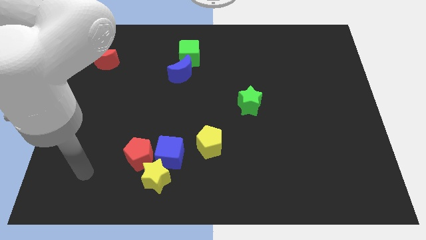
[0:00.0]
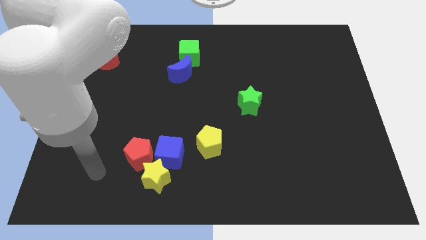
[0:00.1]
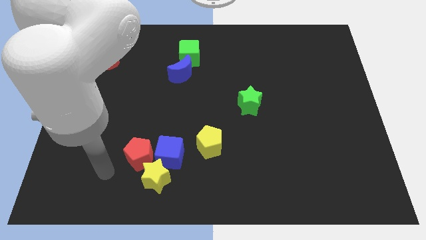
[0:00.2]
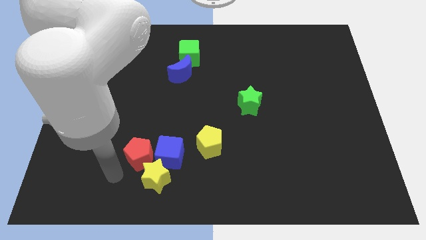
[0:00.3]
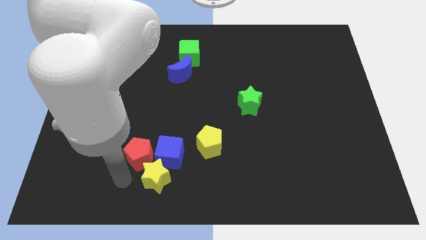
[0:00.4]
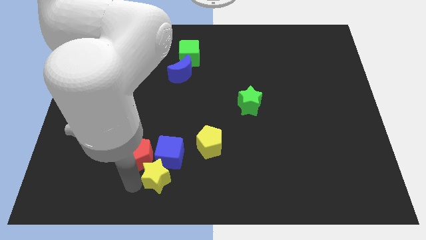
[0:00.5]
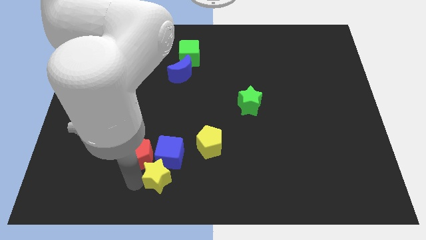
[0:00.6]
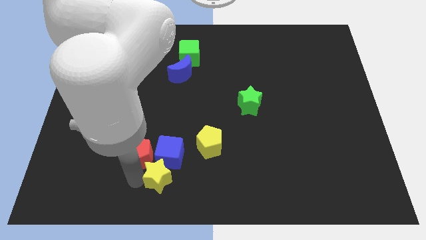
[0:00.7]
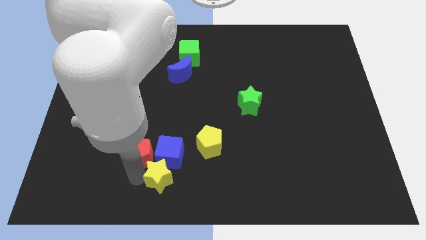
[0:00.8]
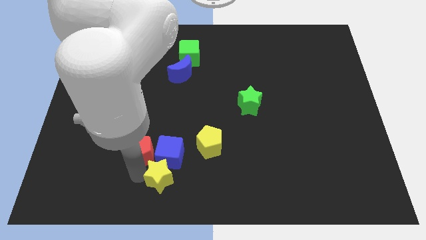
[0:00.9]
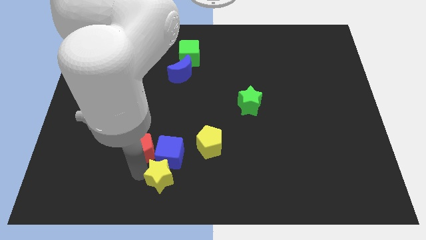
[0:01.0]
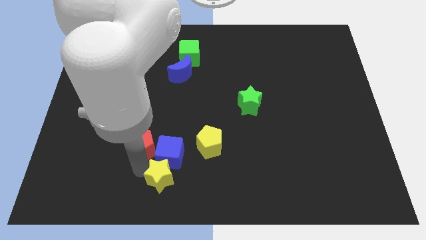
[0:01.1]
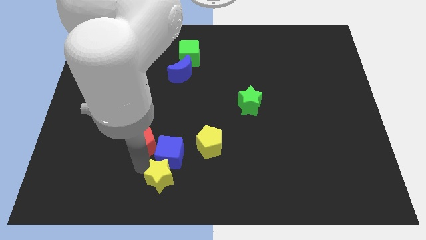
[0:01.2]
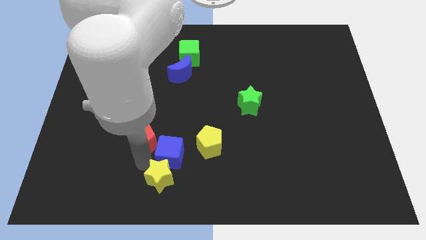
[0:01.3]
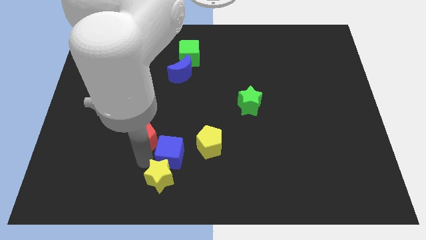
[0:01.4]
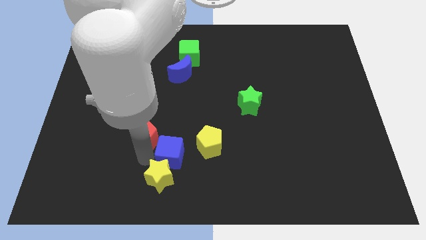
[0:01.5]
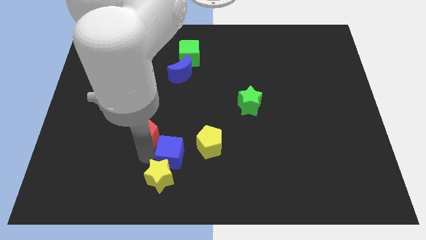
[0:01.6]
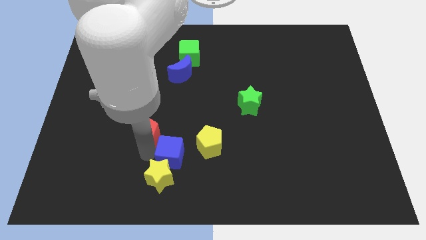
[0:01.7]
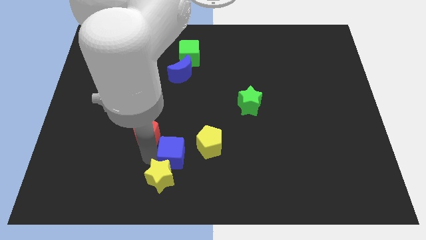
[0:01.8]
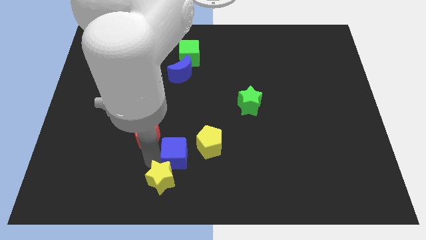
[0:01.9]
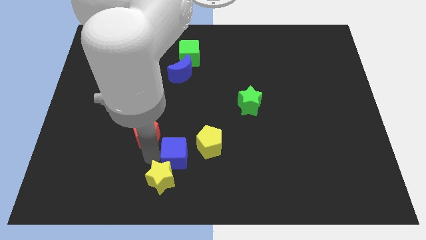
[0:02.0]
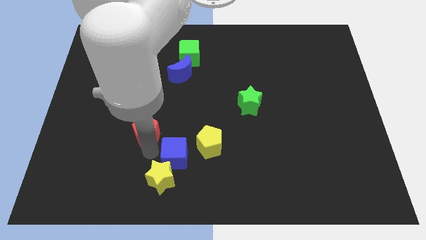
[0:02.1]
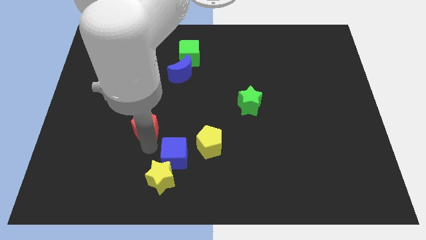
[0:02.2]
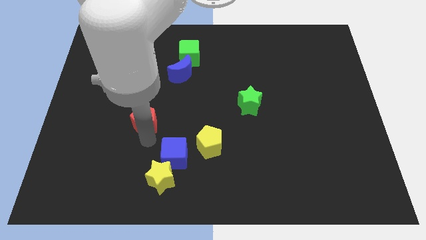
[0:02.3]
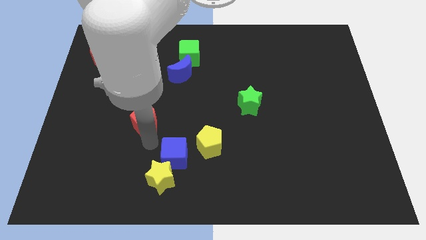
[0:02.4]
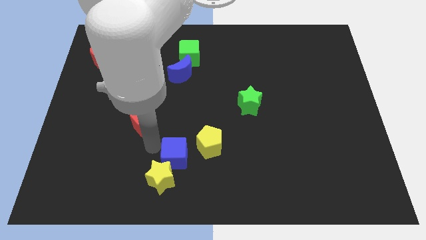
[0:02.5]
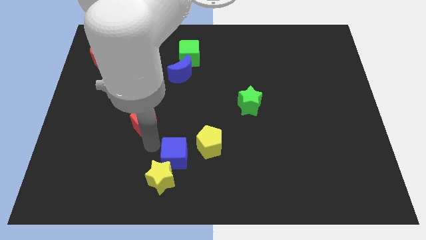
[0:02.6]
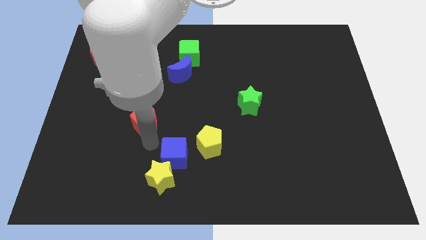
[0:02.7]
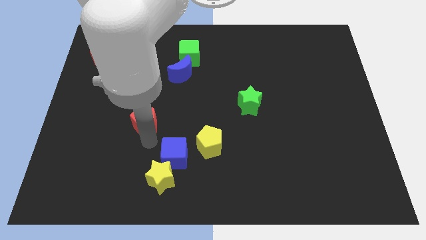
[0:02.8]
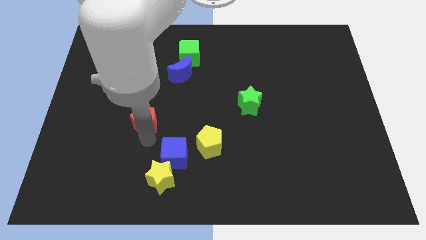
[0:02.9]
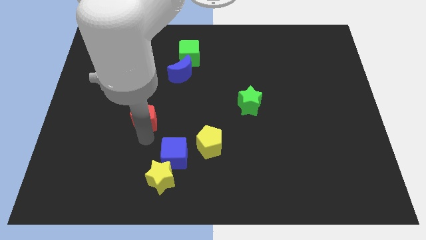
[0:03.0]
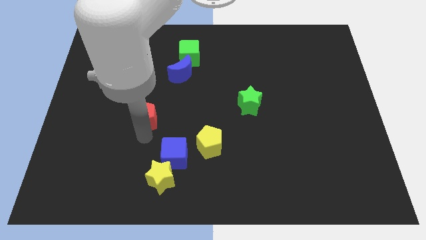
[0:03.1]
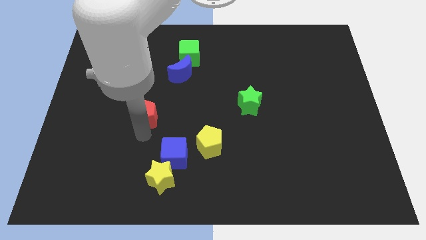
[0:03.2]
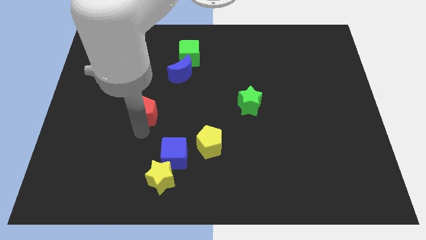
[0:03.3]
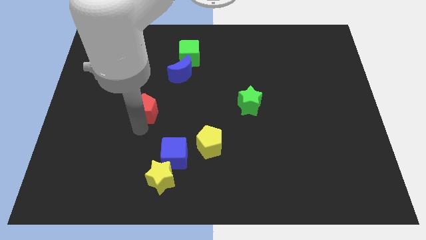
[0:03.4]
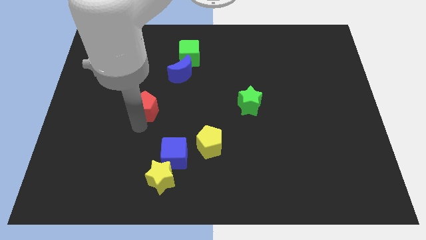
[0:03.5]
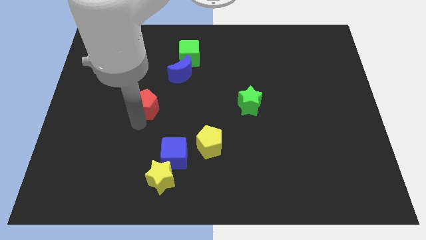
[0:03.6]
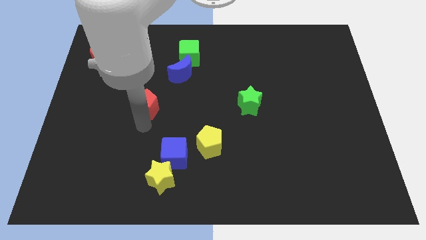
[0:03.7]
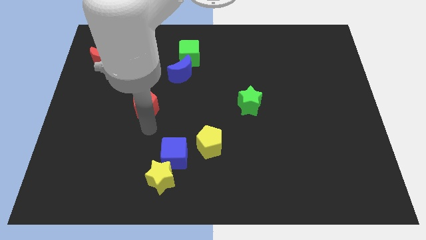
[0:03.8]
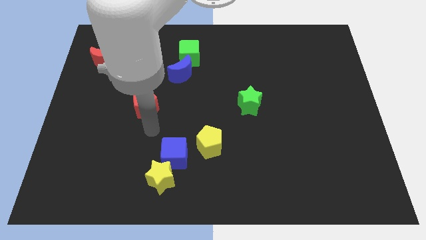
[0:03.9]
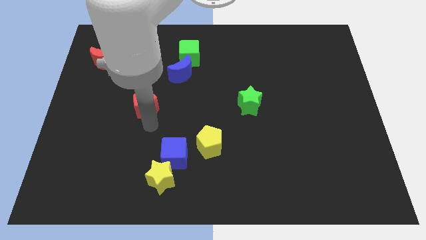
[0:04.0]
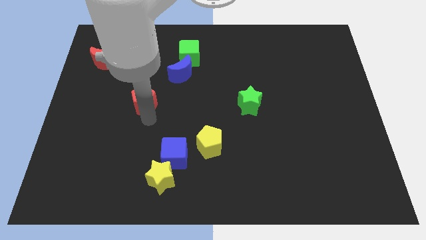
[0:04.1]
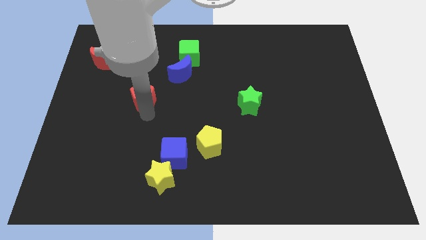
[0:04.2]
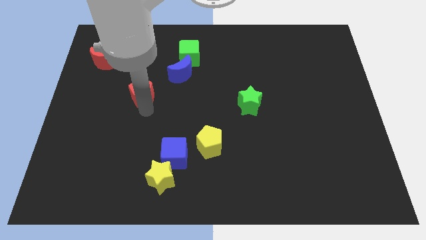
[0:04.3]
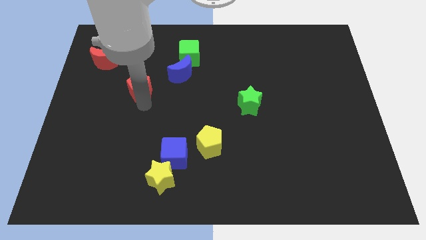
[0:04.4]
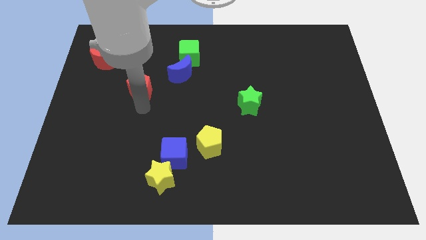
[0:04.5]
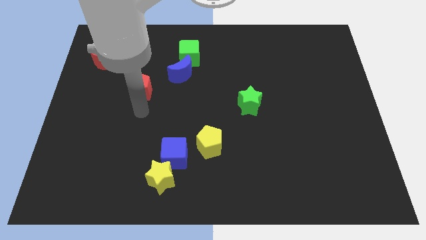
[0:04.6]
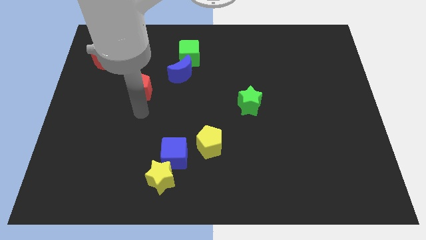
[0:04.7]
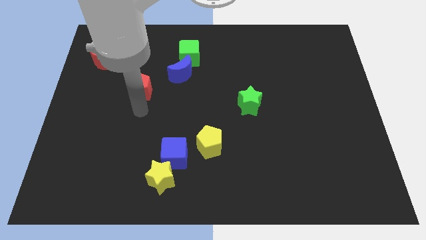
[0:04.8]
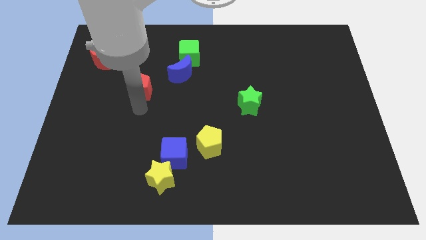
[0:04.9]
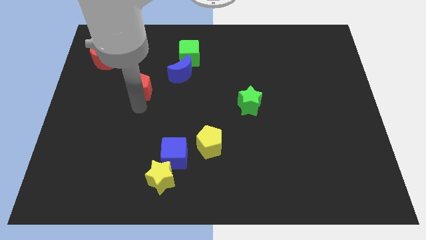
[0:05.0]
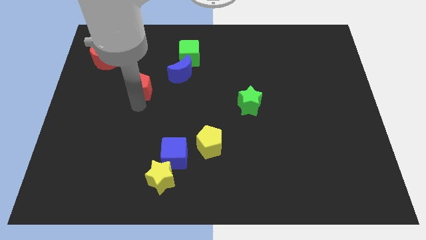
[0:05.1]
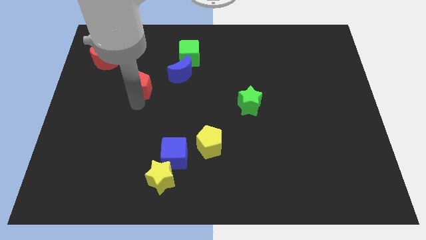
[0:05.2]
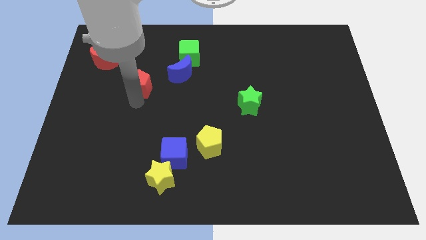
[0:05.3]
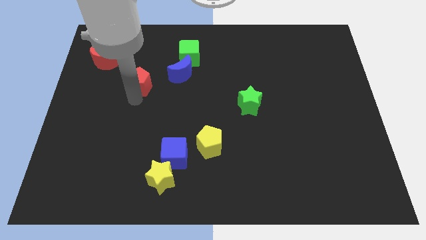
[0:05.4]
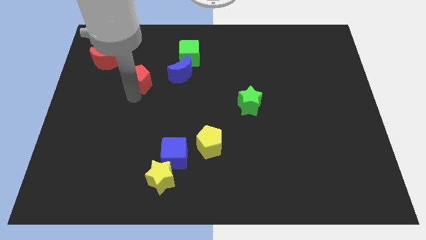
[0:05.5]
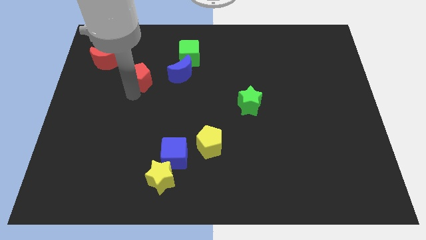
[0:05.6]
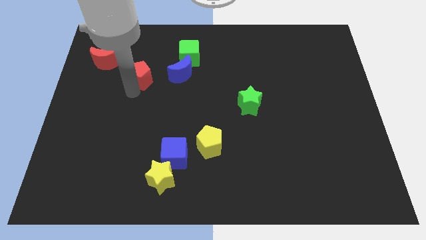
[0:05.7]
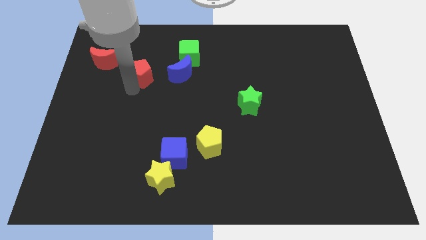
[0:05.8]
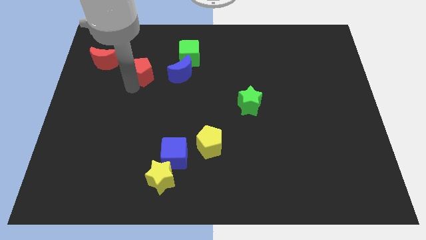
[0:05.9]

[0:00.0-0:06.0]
push the red pentagon right of the red moon
